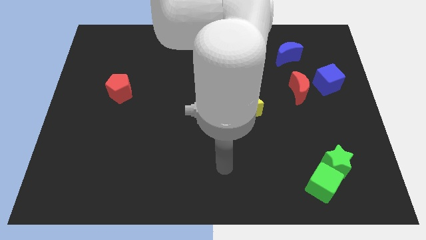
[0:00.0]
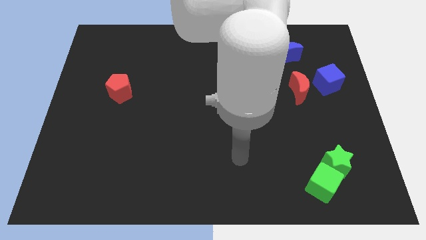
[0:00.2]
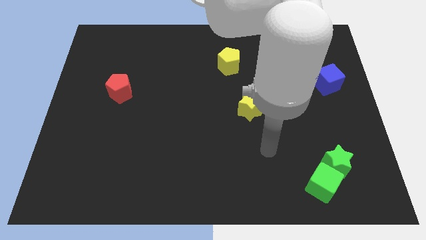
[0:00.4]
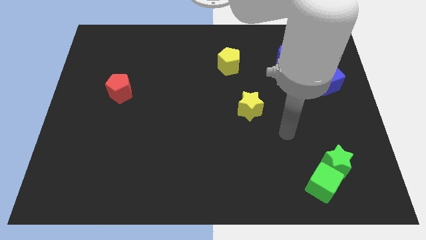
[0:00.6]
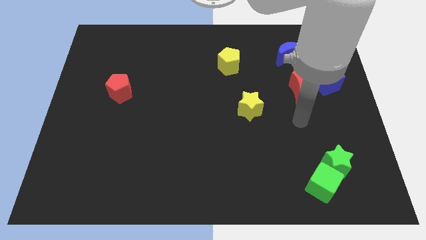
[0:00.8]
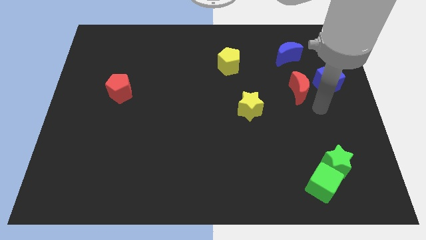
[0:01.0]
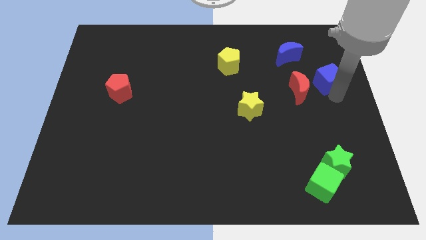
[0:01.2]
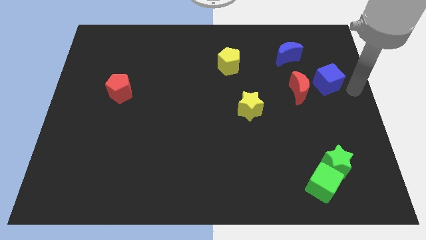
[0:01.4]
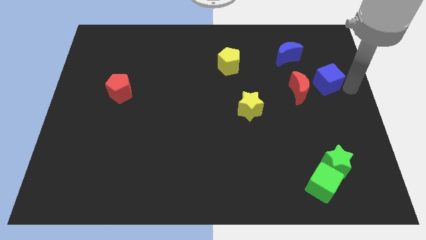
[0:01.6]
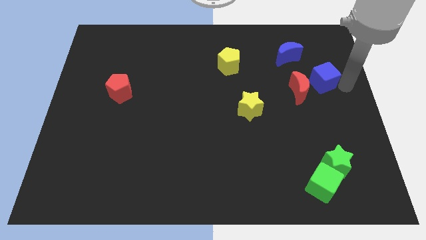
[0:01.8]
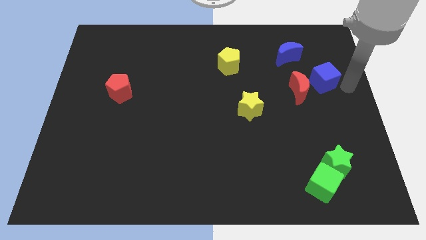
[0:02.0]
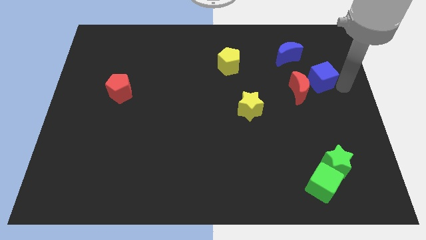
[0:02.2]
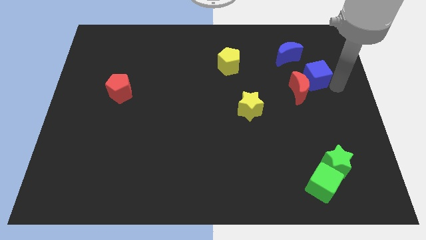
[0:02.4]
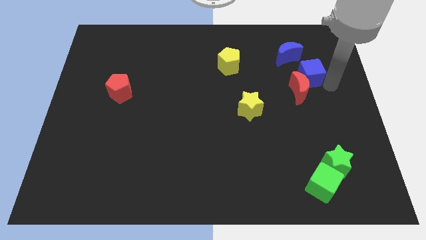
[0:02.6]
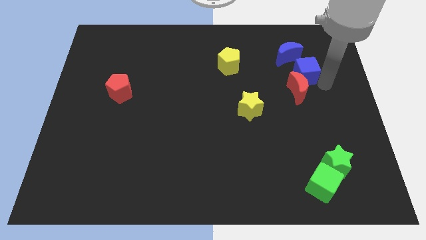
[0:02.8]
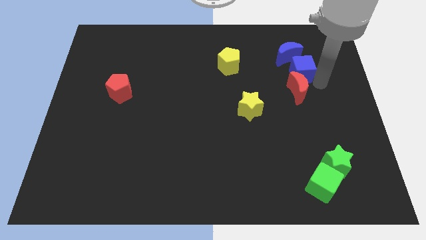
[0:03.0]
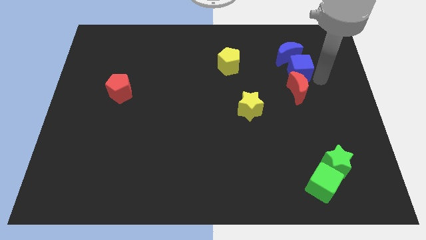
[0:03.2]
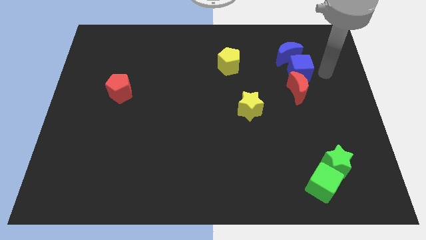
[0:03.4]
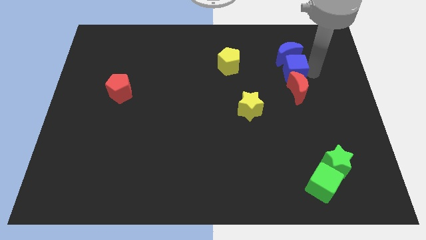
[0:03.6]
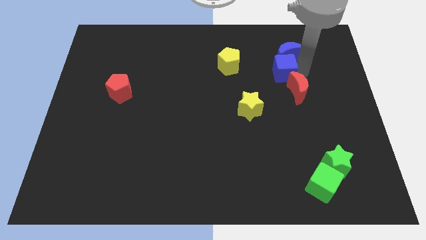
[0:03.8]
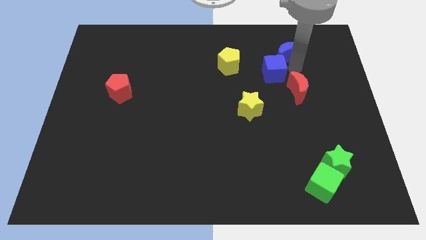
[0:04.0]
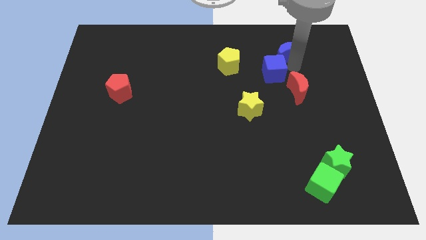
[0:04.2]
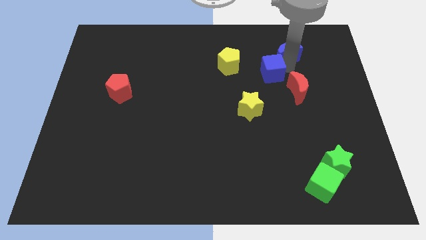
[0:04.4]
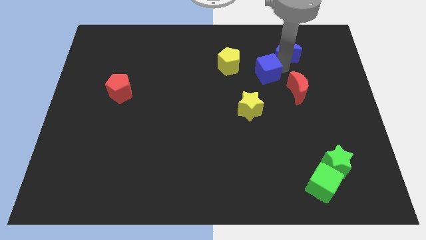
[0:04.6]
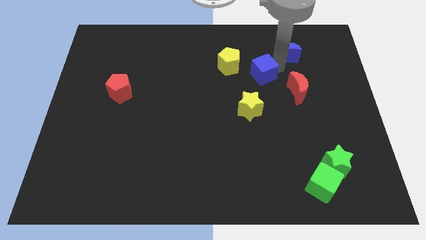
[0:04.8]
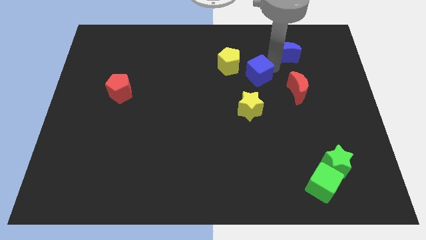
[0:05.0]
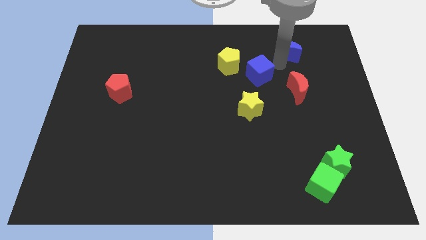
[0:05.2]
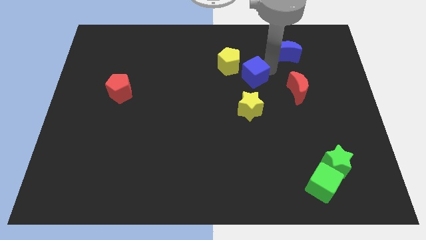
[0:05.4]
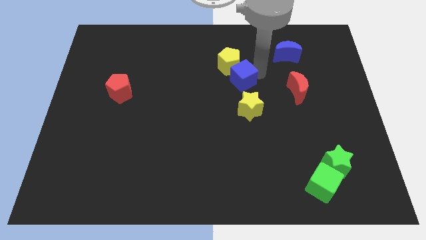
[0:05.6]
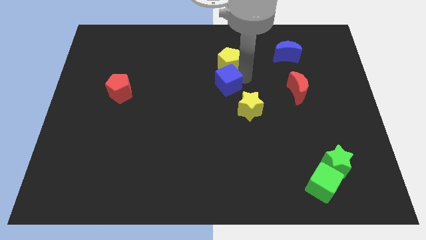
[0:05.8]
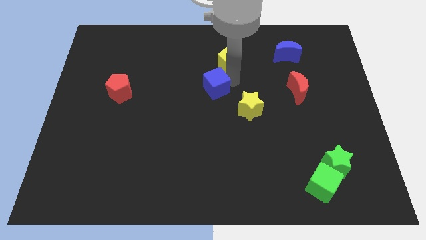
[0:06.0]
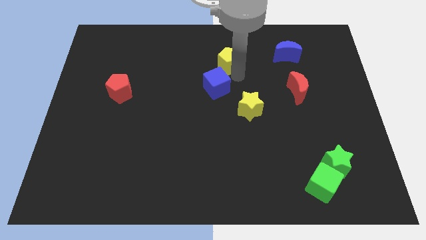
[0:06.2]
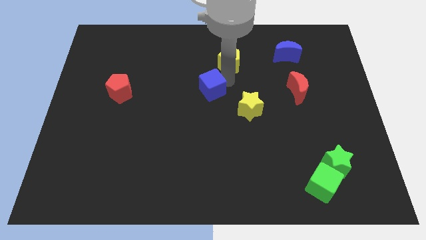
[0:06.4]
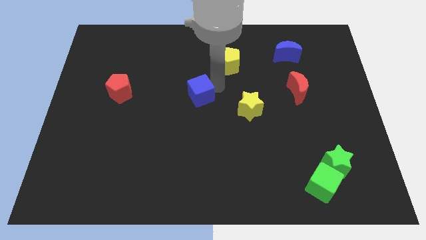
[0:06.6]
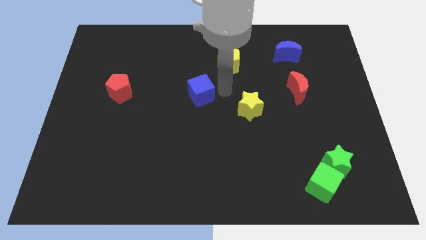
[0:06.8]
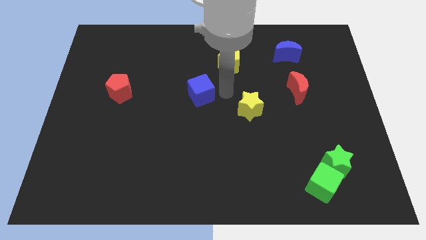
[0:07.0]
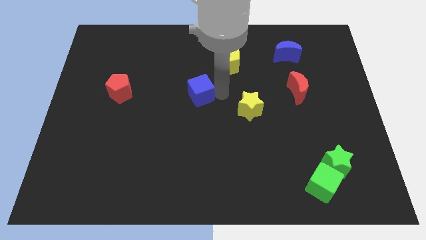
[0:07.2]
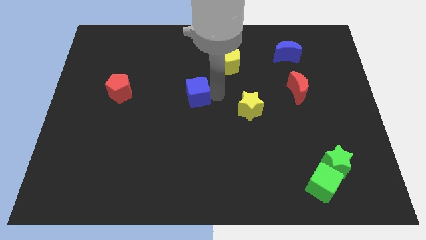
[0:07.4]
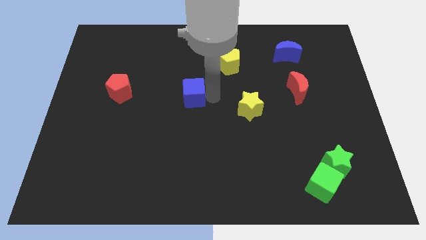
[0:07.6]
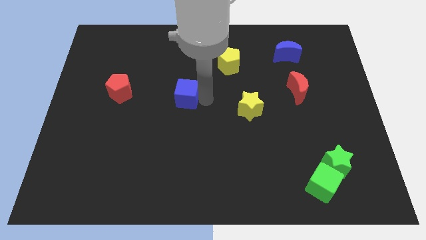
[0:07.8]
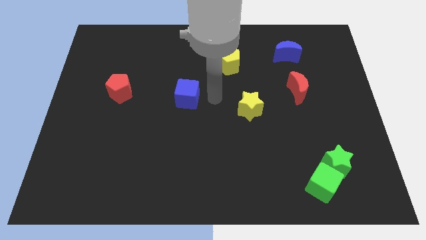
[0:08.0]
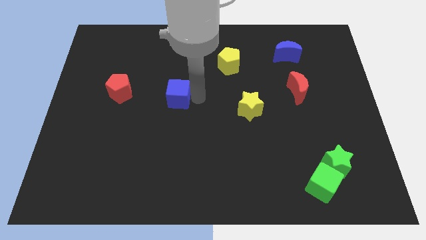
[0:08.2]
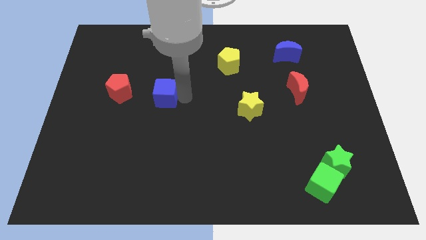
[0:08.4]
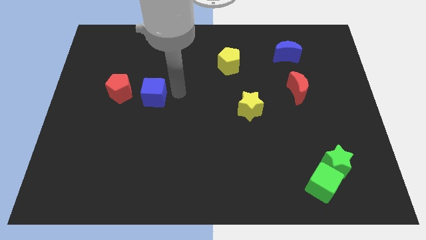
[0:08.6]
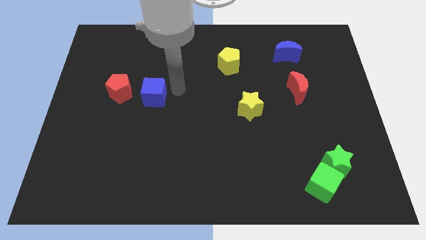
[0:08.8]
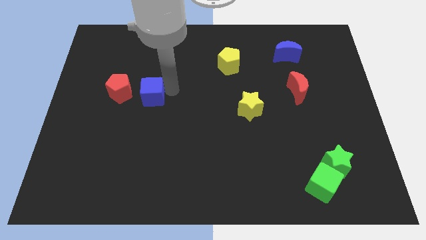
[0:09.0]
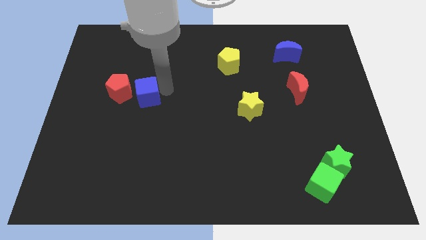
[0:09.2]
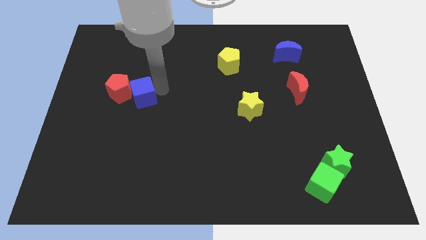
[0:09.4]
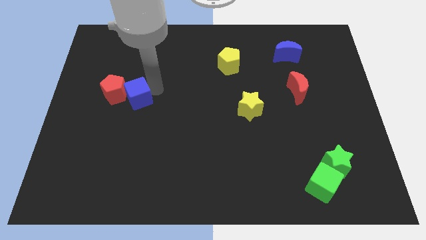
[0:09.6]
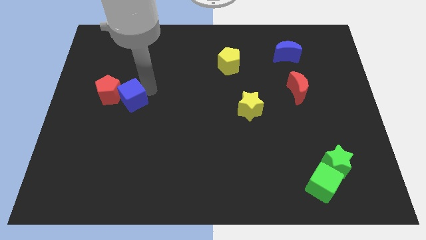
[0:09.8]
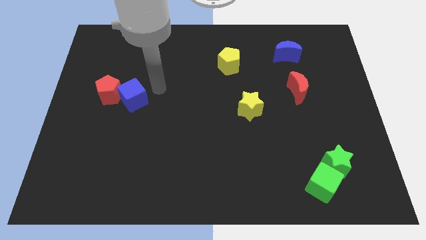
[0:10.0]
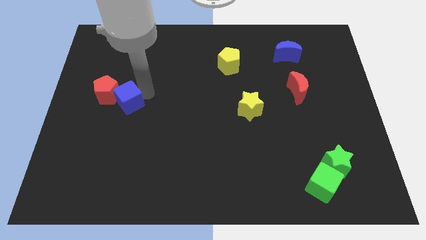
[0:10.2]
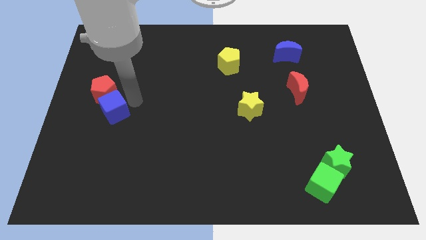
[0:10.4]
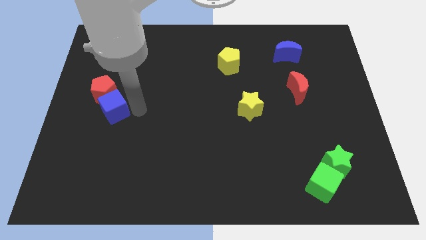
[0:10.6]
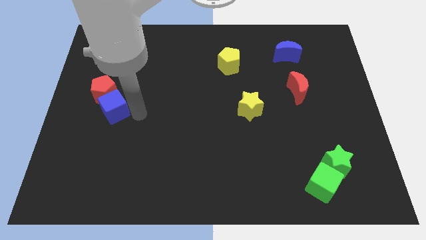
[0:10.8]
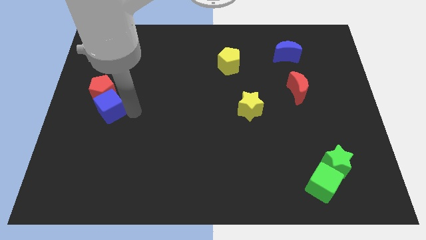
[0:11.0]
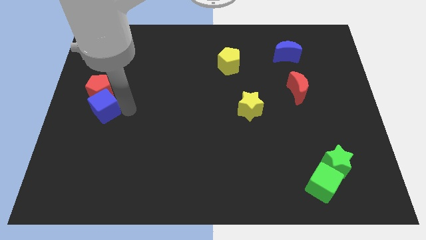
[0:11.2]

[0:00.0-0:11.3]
move the blue cube to the left side of the board

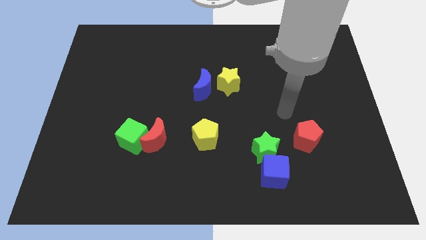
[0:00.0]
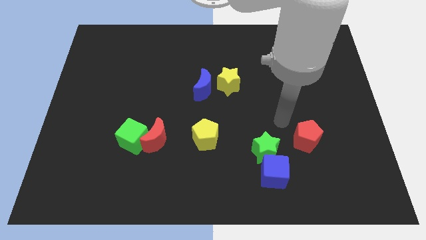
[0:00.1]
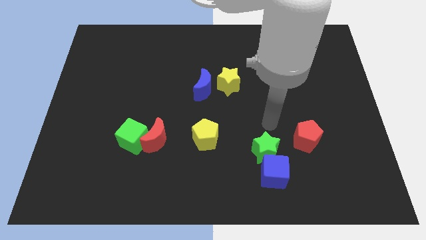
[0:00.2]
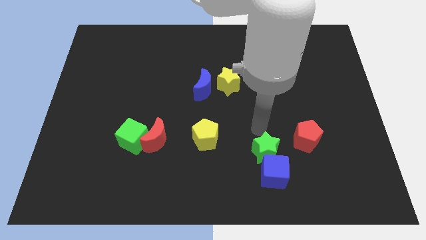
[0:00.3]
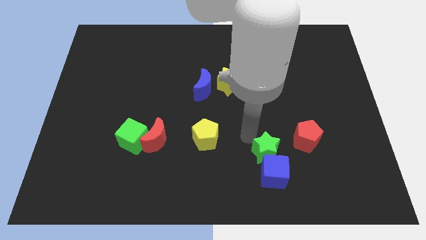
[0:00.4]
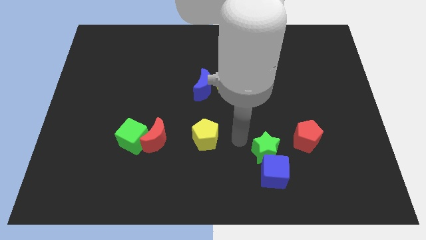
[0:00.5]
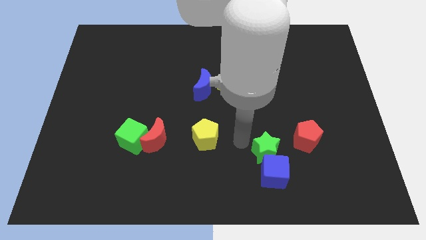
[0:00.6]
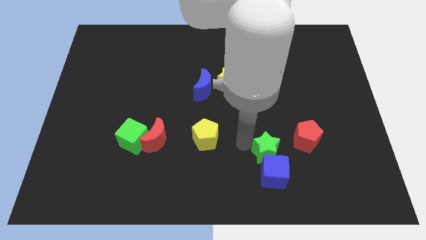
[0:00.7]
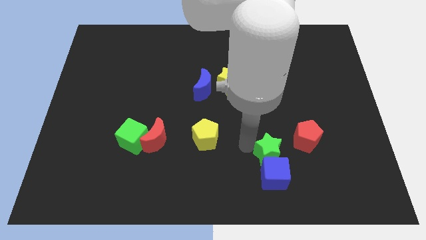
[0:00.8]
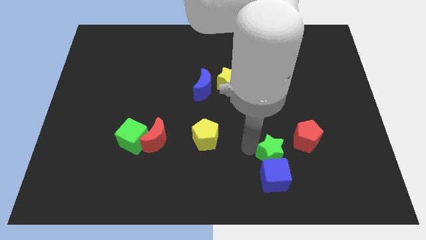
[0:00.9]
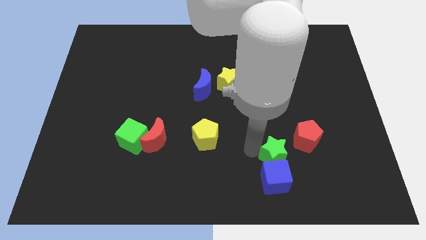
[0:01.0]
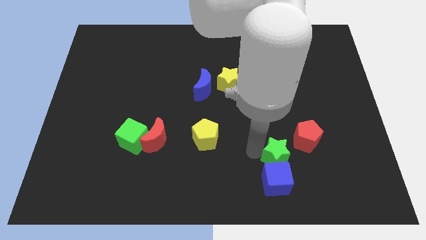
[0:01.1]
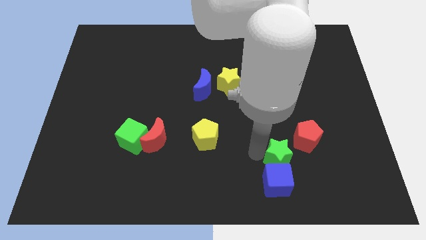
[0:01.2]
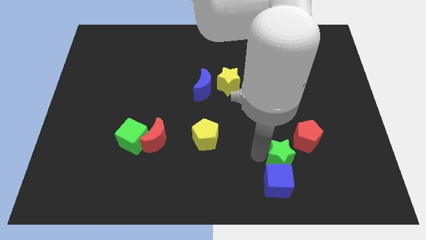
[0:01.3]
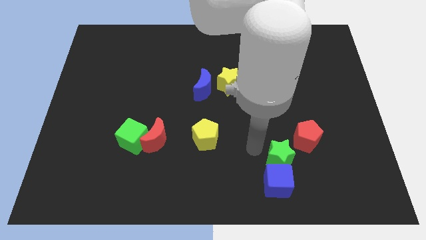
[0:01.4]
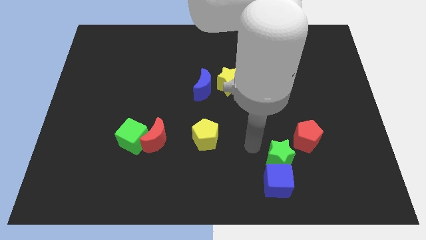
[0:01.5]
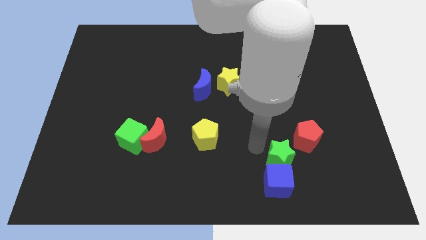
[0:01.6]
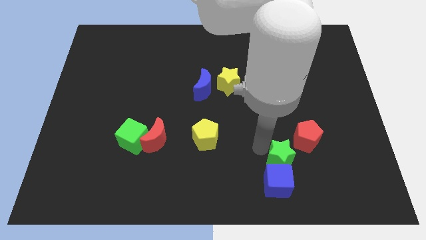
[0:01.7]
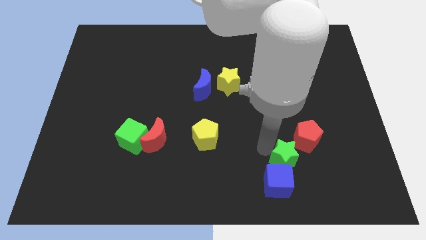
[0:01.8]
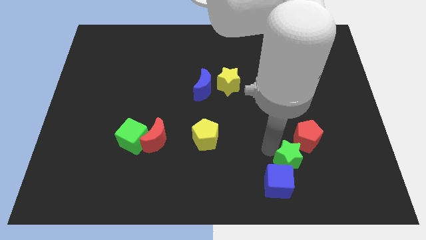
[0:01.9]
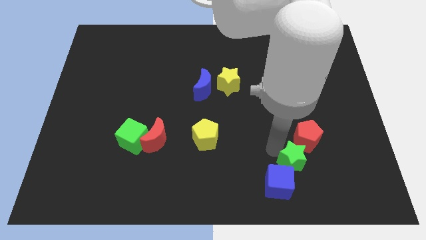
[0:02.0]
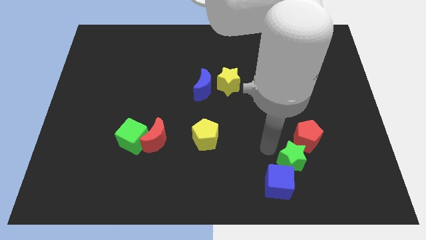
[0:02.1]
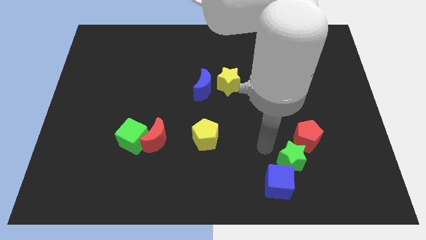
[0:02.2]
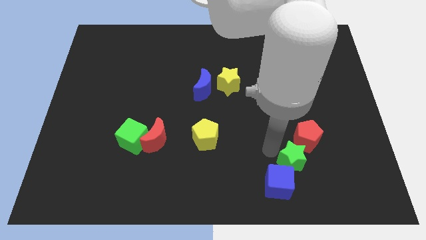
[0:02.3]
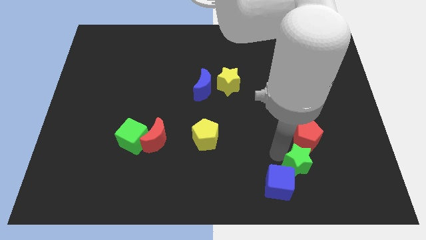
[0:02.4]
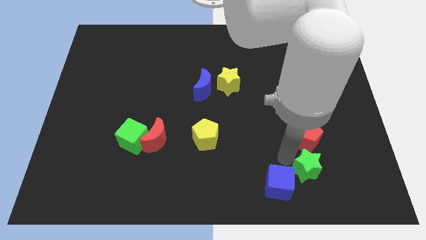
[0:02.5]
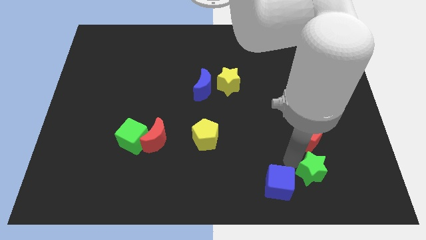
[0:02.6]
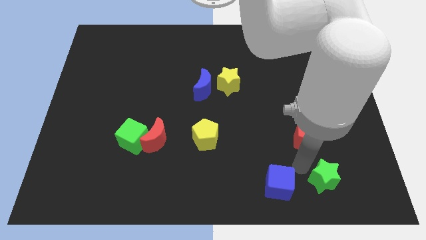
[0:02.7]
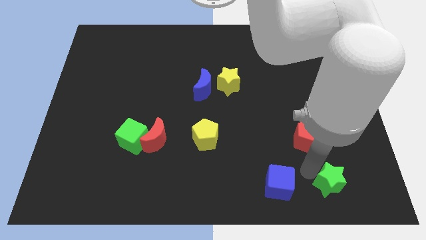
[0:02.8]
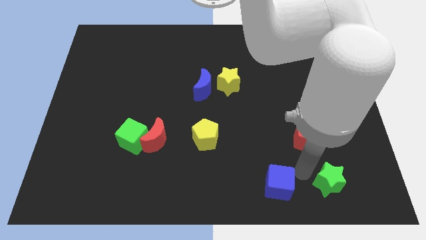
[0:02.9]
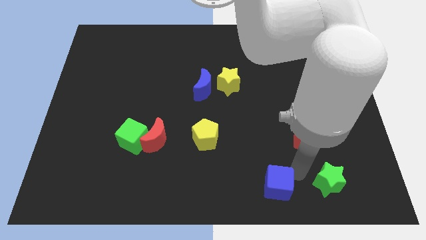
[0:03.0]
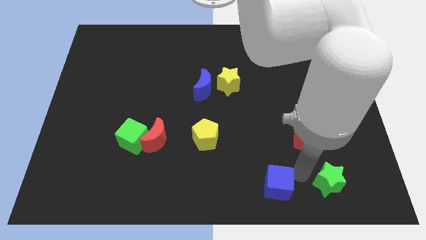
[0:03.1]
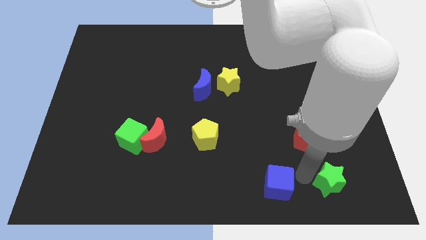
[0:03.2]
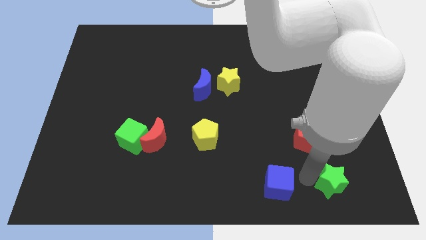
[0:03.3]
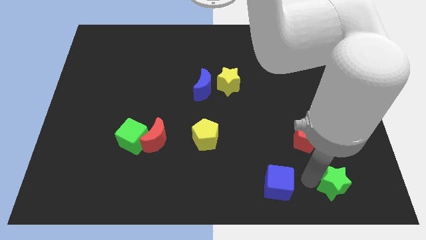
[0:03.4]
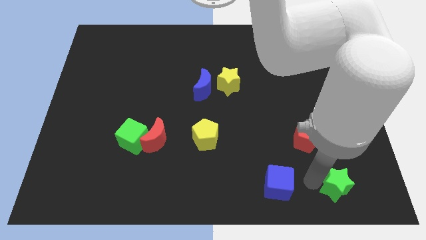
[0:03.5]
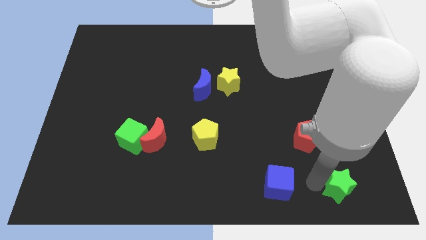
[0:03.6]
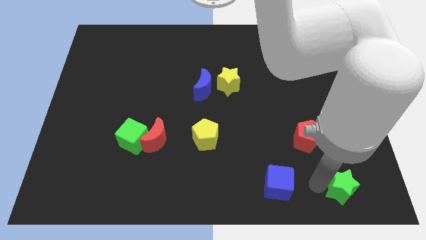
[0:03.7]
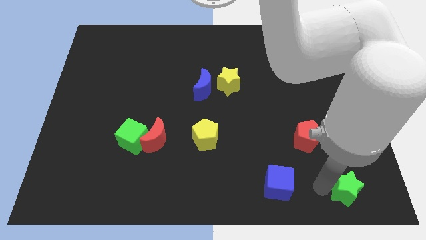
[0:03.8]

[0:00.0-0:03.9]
slide the green star to the lower right corner
